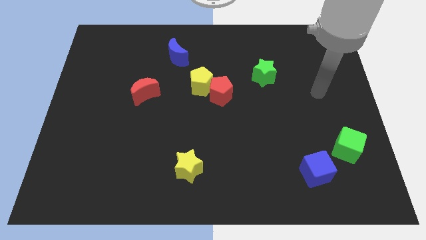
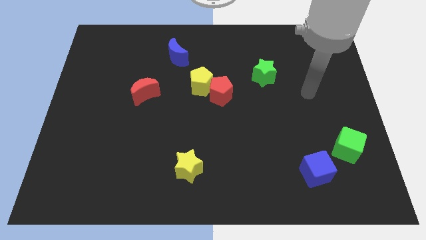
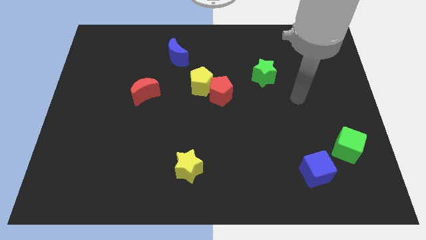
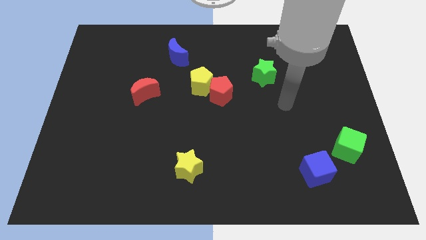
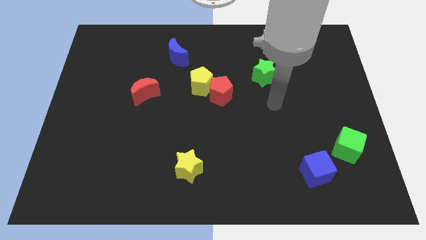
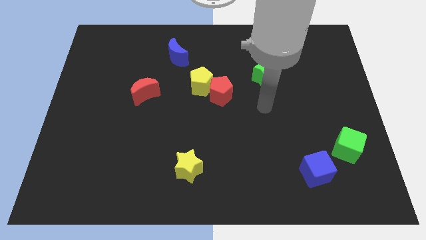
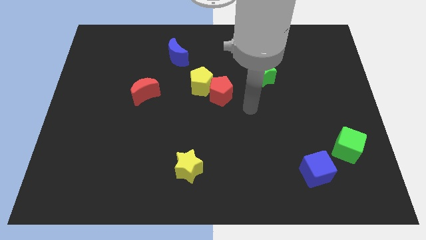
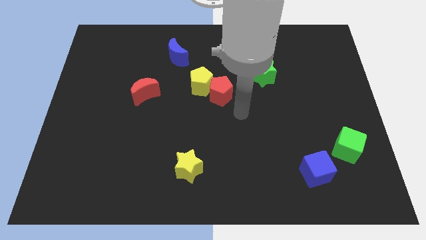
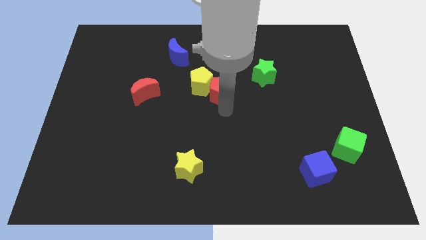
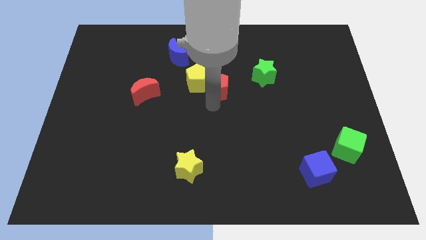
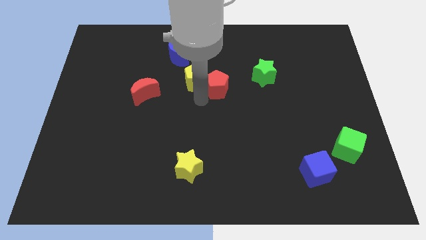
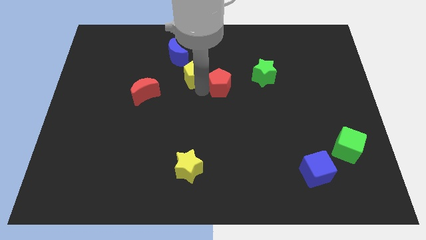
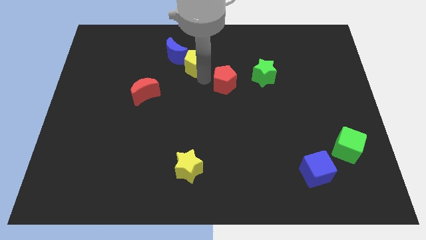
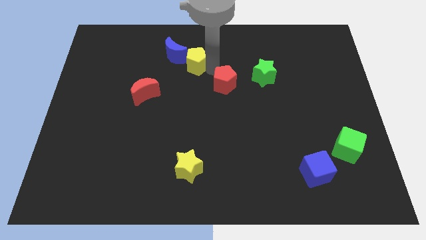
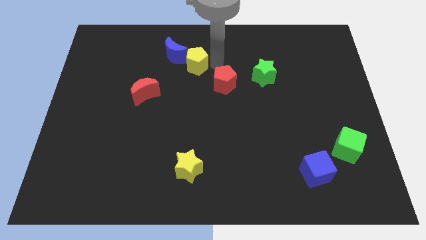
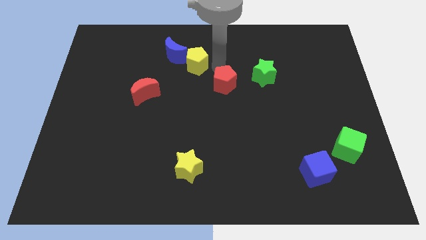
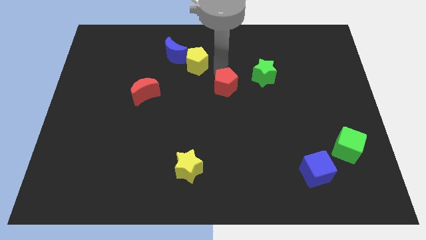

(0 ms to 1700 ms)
pull the red pentagon apart from the yellow pentagon

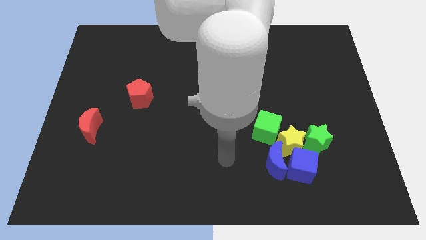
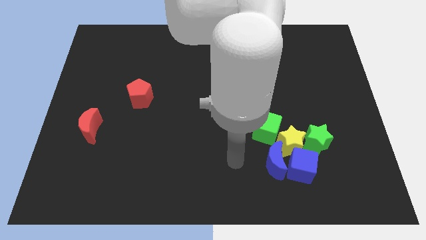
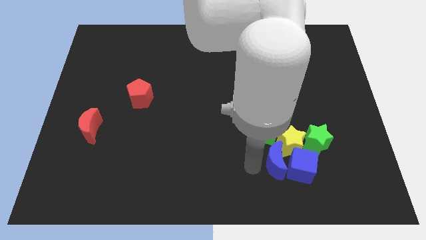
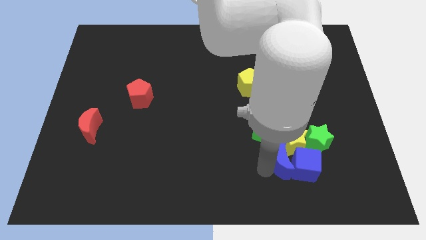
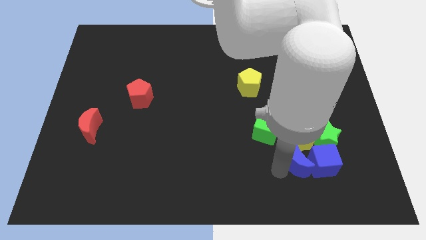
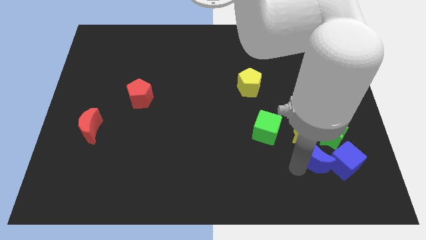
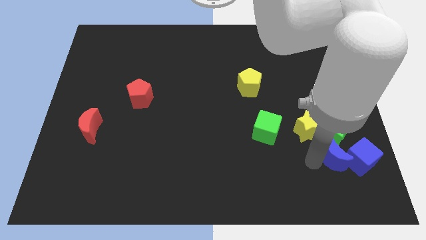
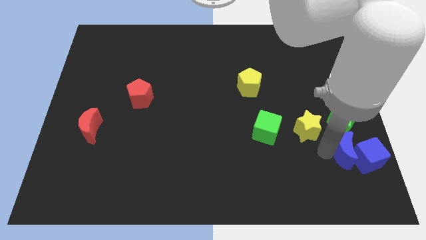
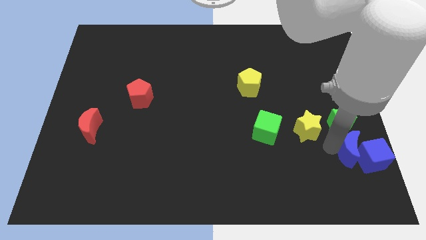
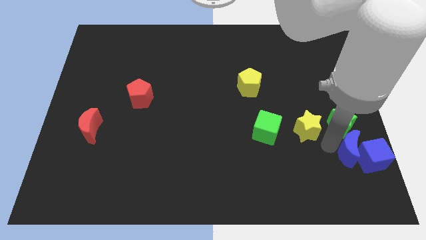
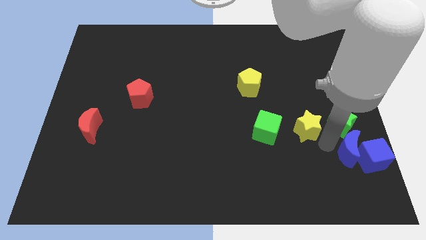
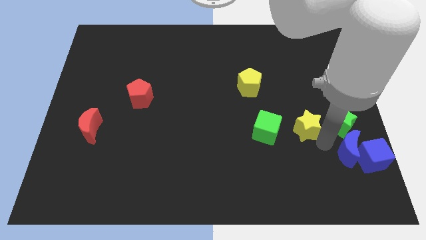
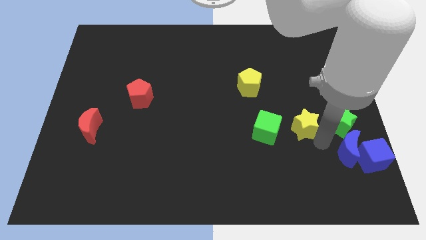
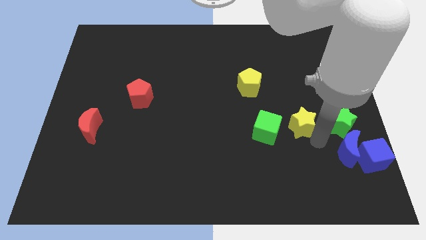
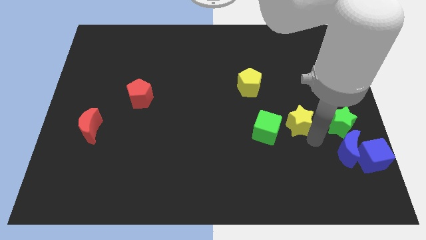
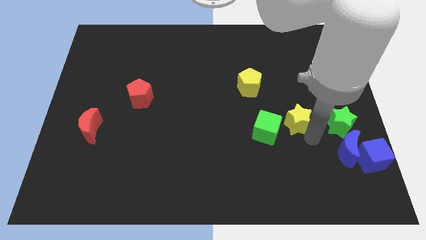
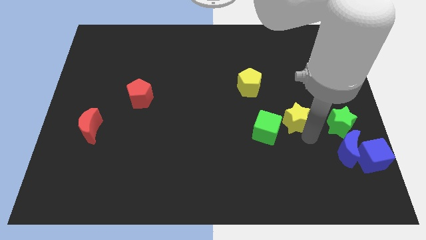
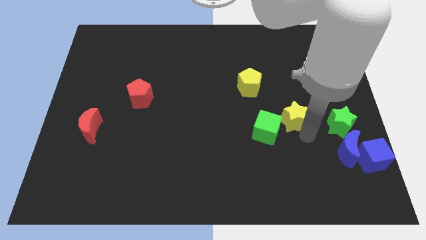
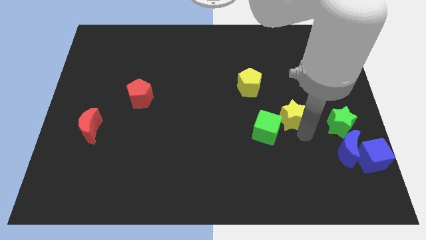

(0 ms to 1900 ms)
move the yellow star away from the clump

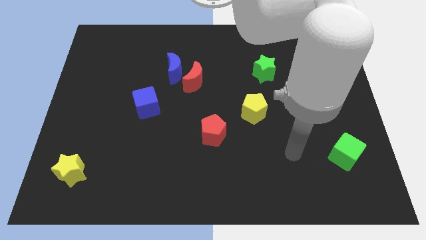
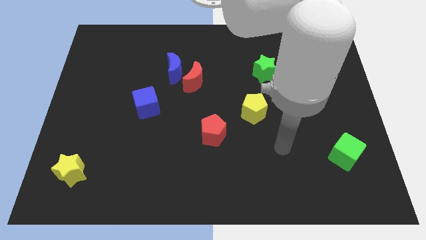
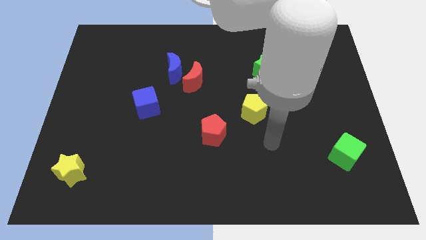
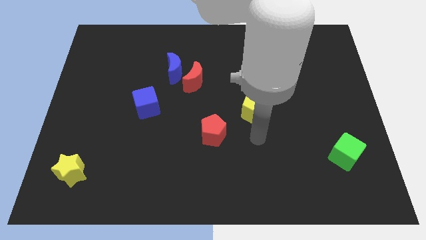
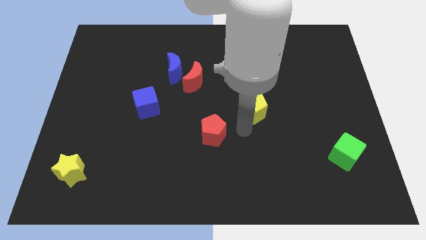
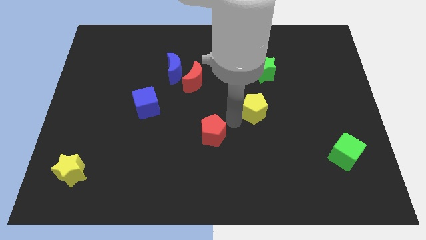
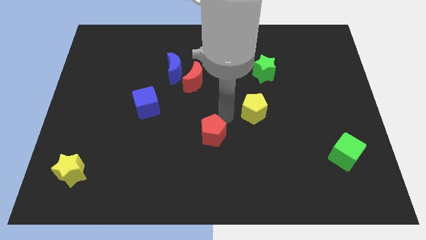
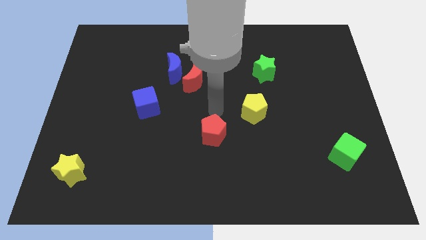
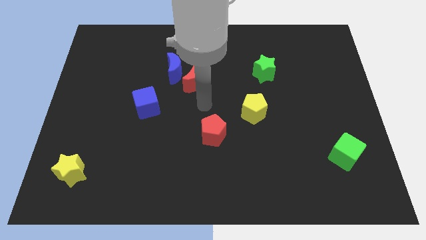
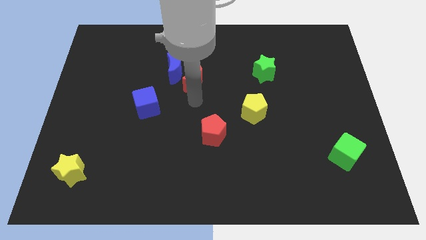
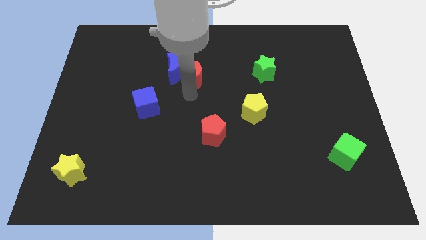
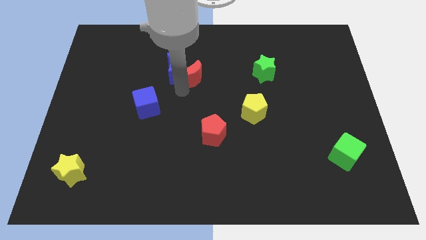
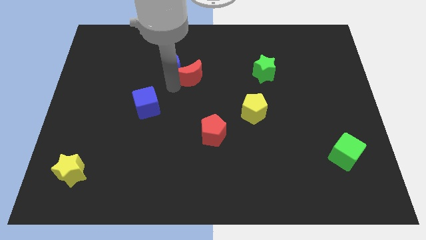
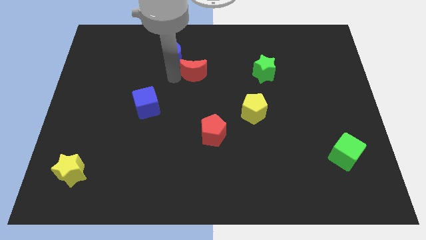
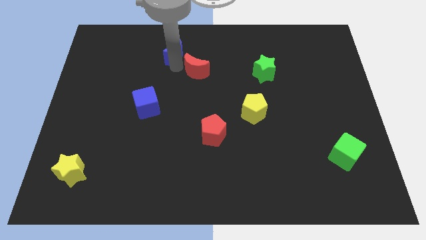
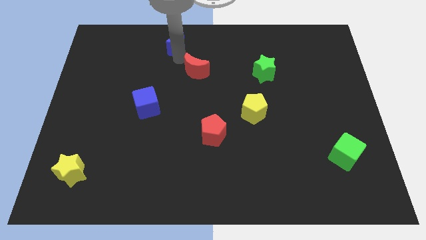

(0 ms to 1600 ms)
move the red moon away from the blue moon

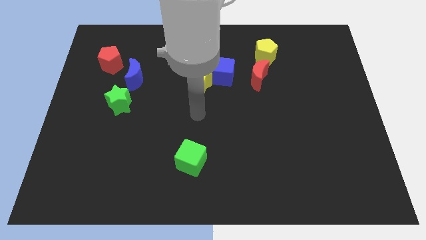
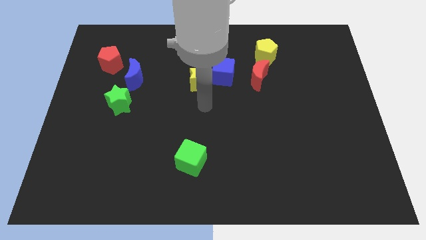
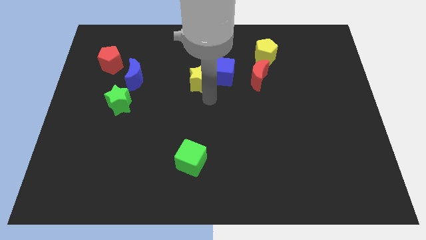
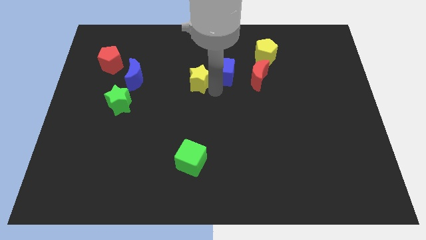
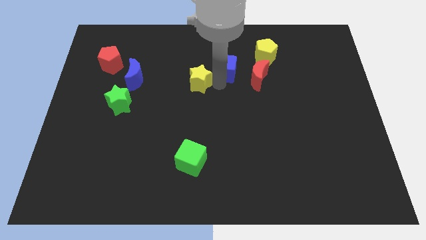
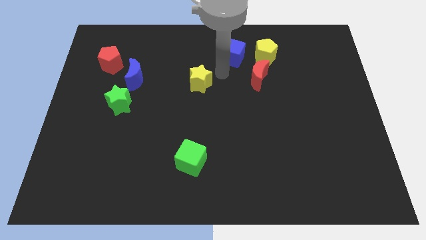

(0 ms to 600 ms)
move the yellow star away from the blue cube

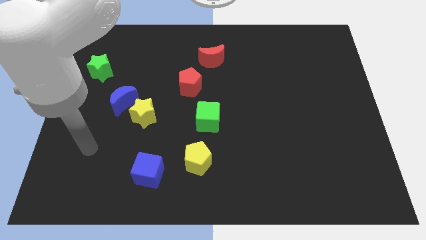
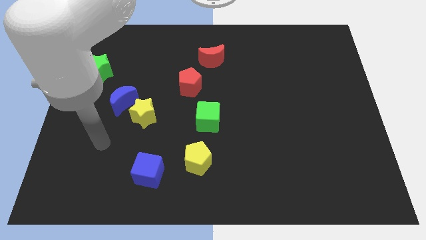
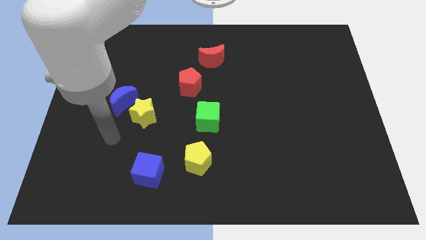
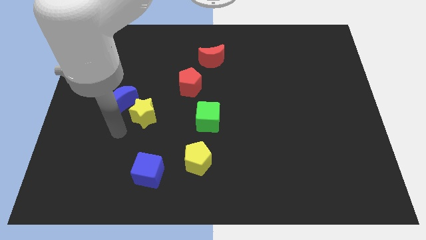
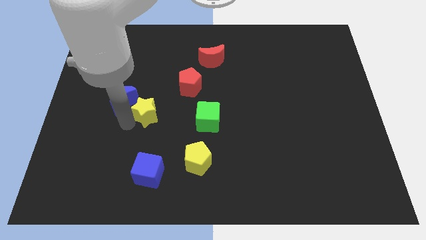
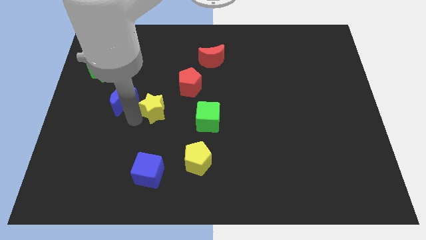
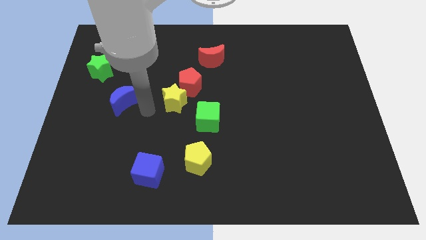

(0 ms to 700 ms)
move the blue moon away from the yellow star

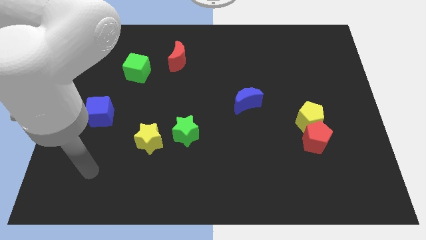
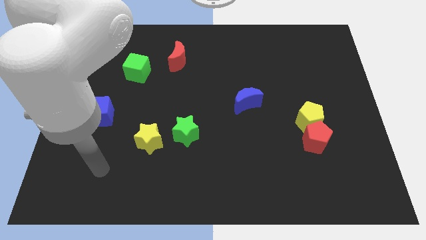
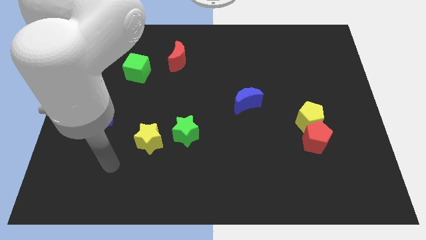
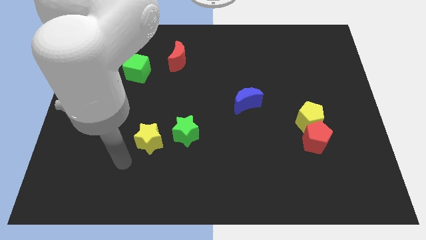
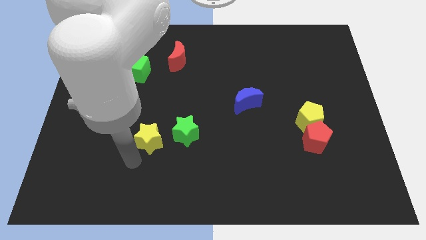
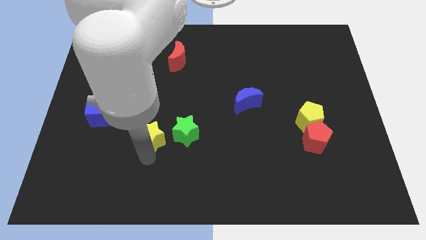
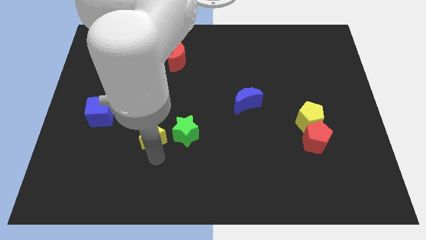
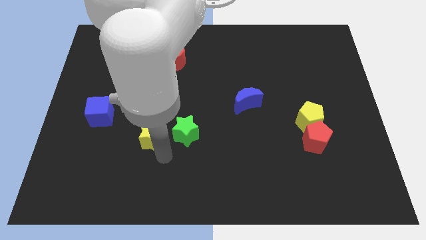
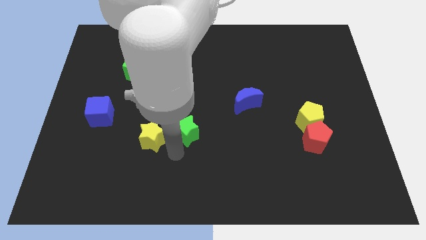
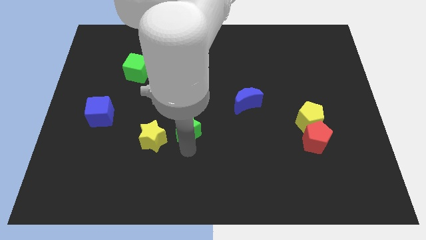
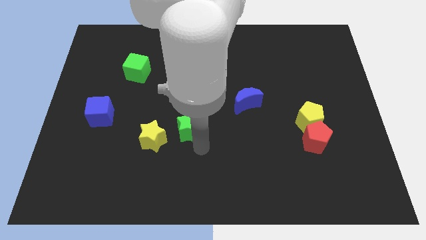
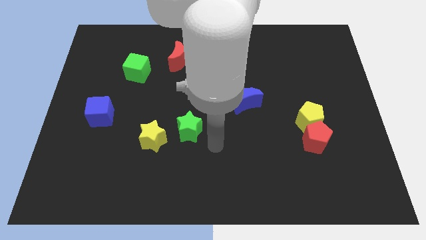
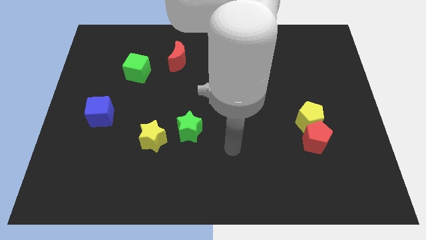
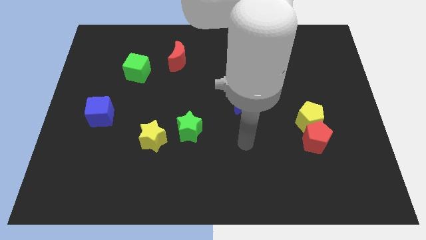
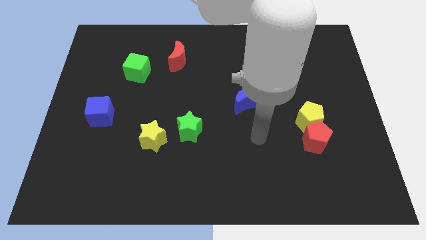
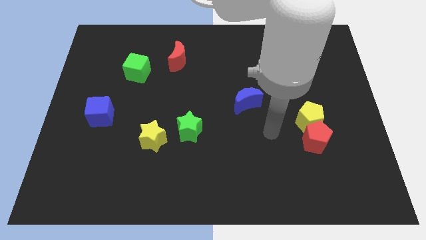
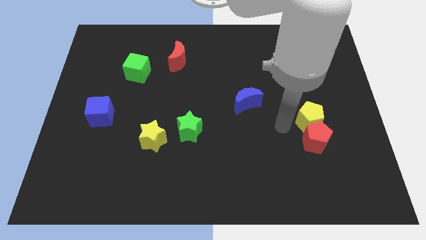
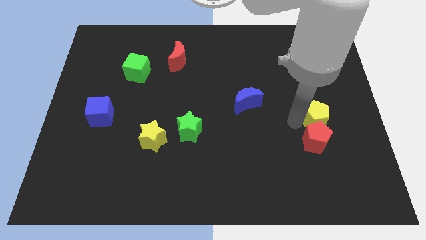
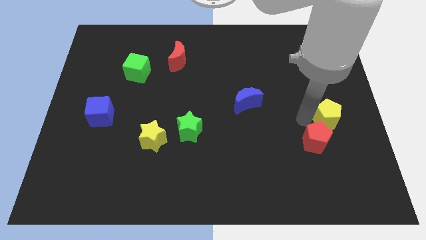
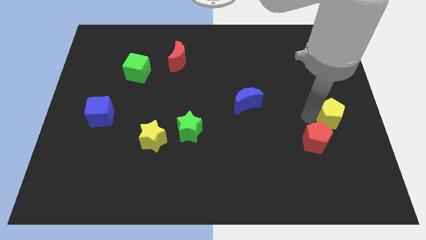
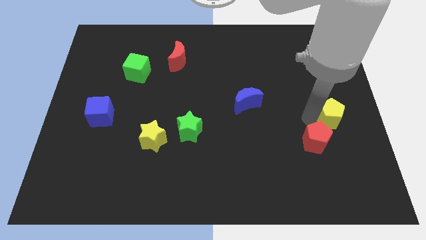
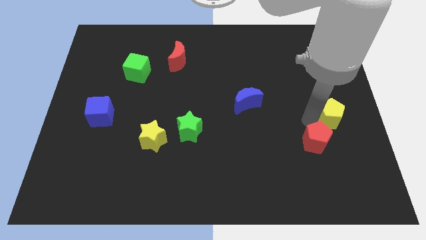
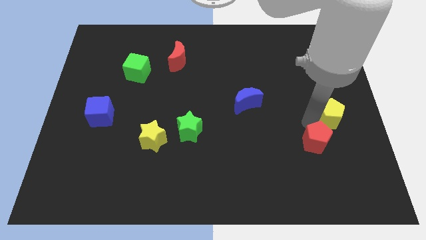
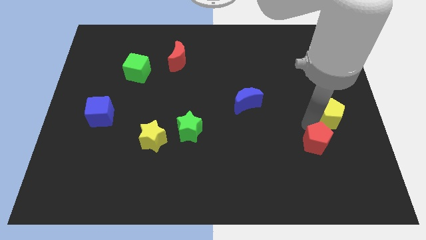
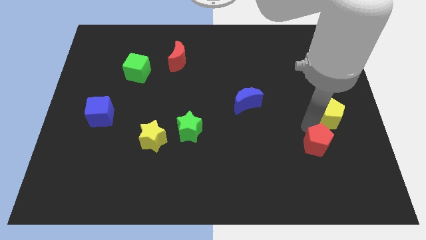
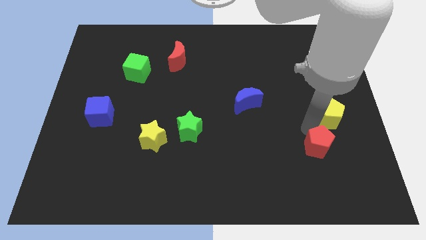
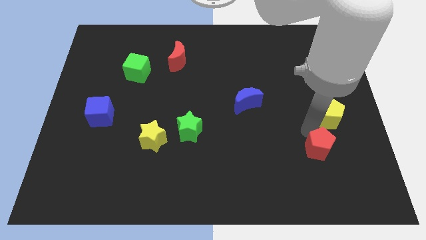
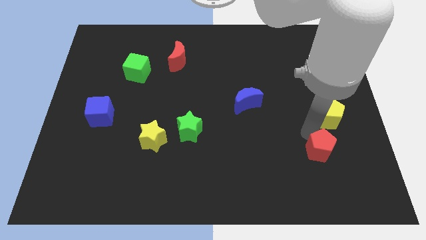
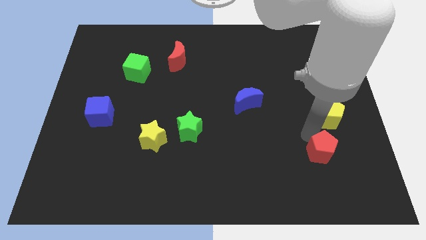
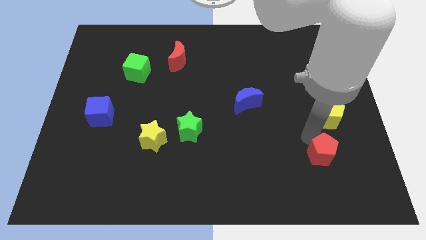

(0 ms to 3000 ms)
separate the red pentagon from the yellow pentagon
